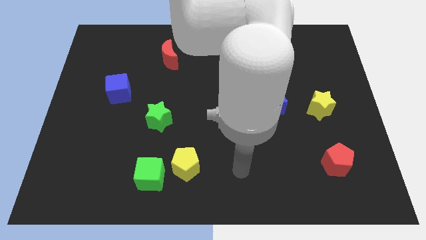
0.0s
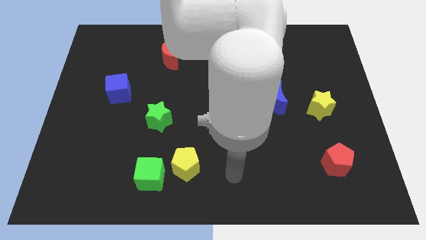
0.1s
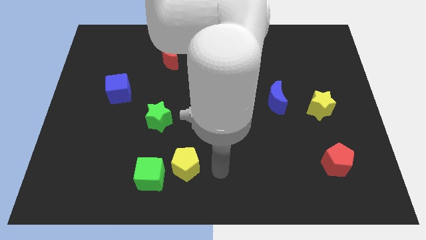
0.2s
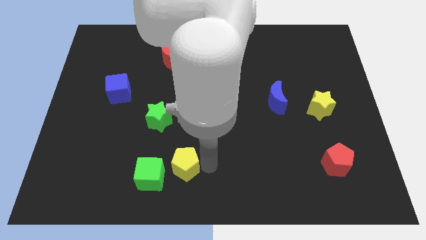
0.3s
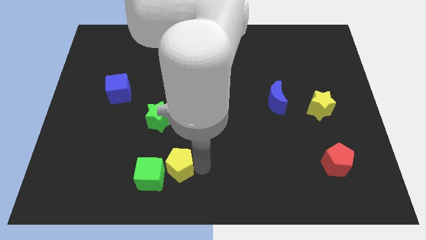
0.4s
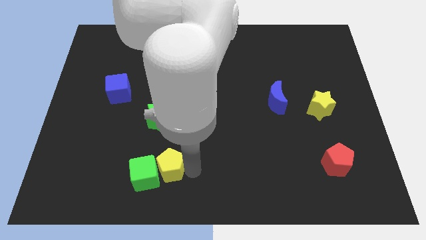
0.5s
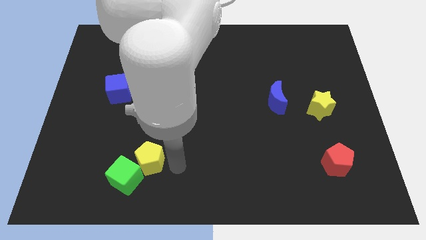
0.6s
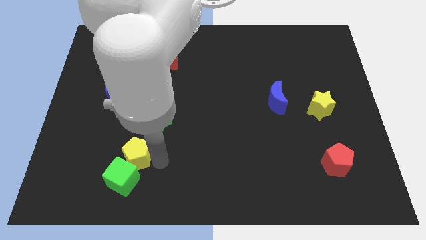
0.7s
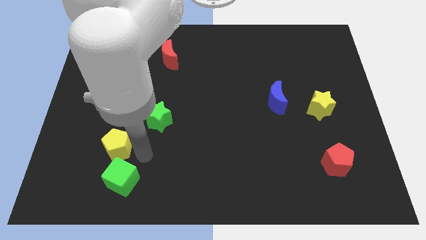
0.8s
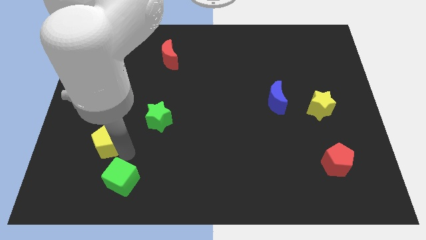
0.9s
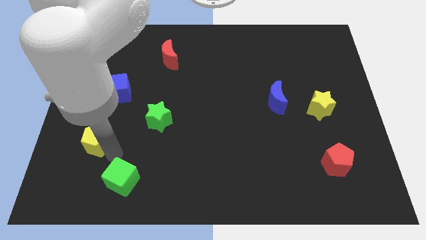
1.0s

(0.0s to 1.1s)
pull the green cube apart from the yellow pentagon

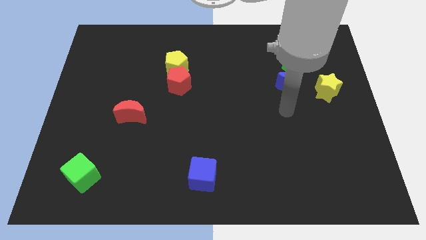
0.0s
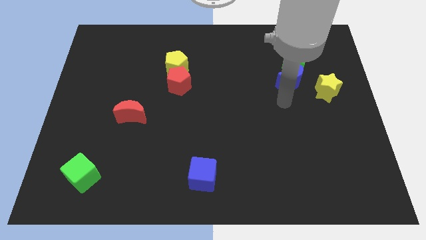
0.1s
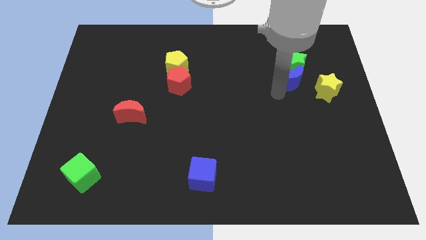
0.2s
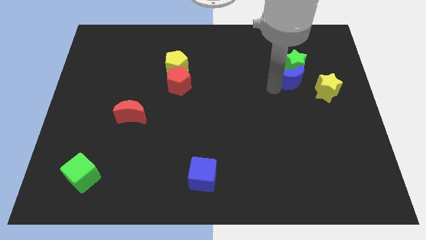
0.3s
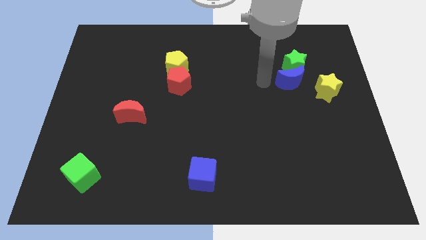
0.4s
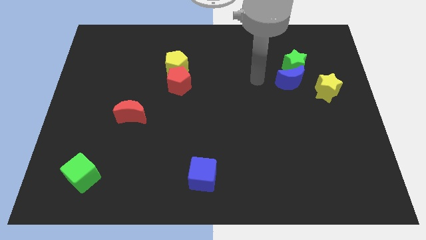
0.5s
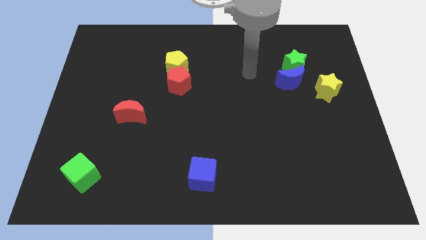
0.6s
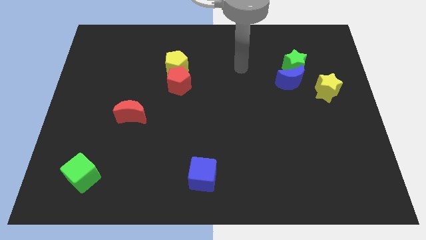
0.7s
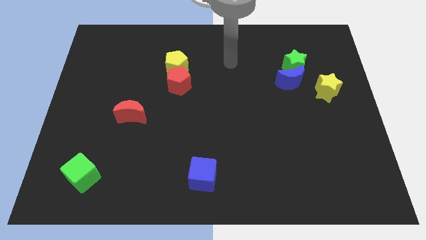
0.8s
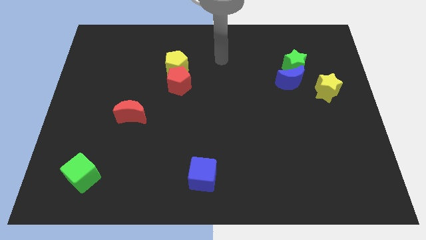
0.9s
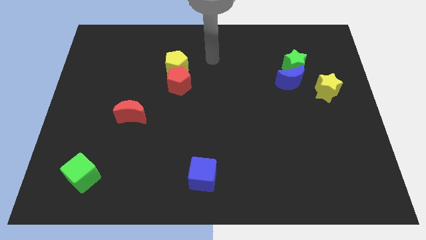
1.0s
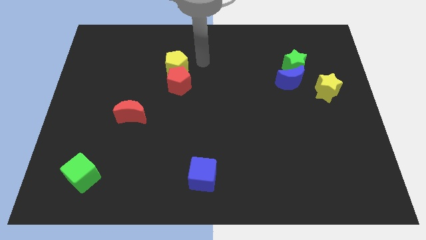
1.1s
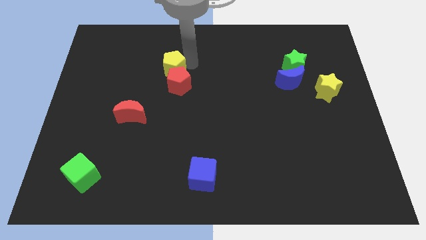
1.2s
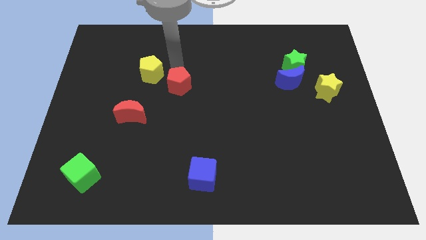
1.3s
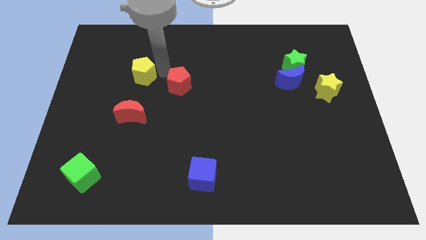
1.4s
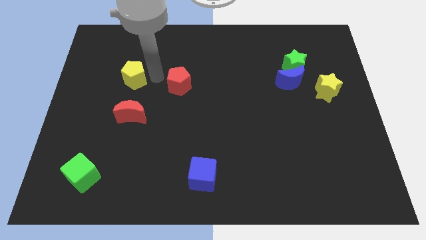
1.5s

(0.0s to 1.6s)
move the red pentagon away from the yellow pentagon

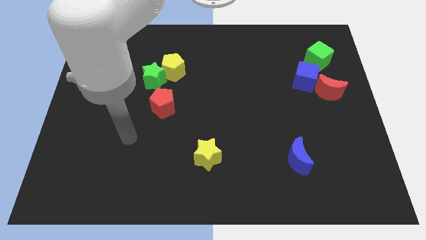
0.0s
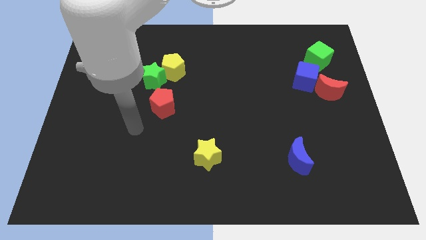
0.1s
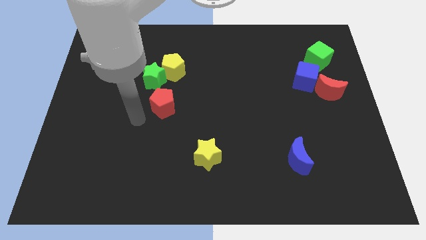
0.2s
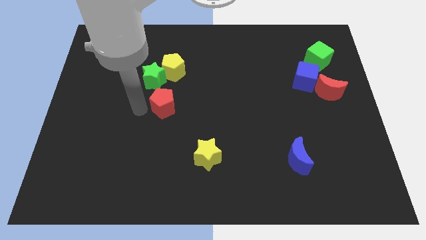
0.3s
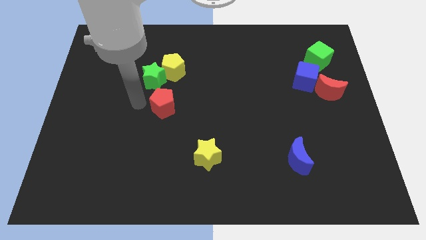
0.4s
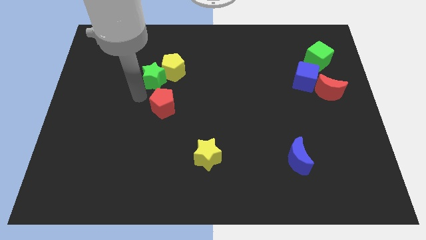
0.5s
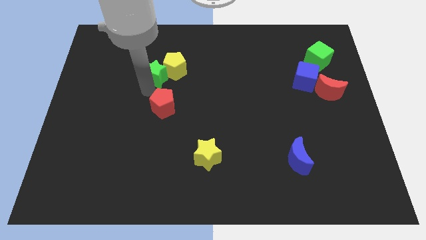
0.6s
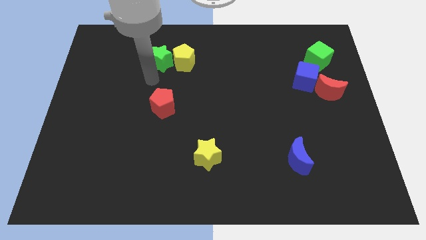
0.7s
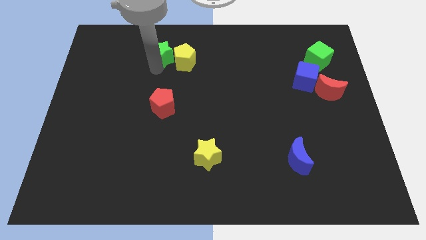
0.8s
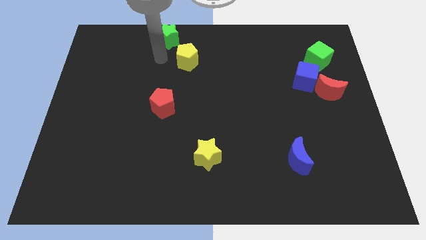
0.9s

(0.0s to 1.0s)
move the yellow pentagon away from the green star

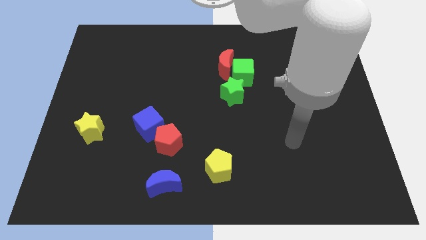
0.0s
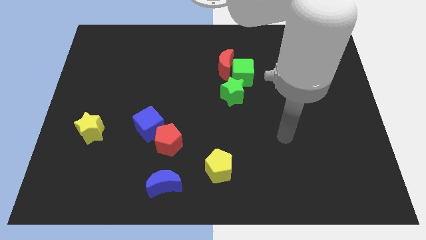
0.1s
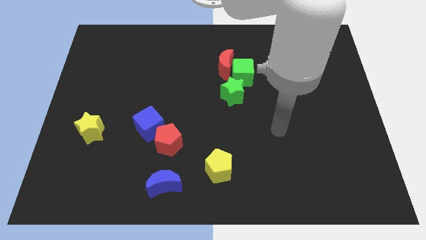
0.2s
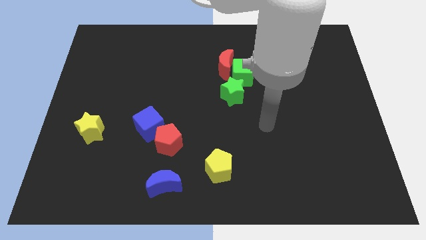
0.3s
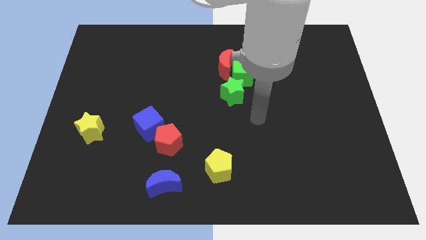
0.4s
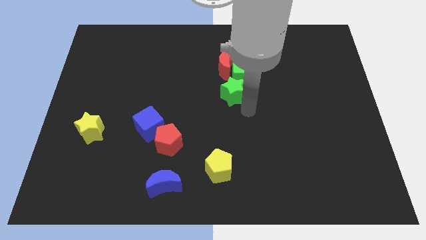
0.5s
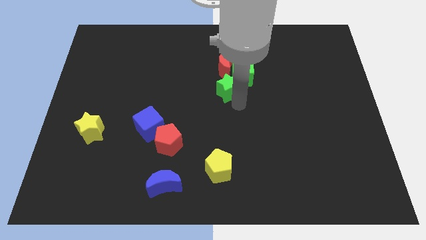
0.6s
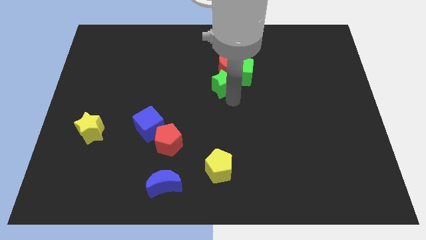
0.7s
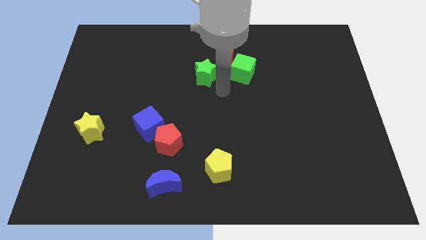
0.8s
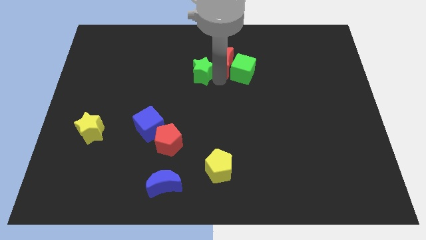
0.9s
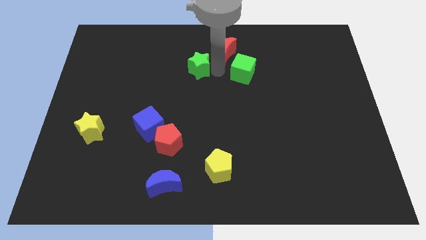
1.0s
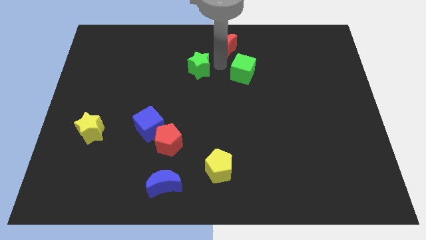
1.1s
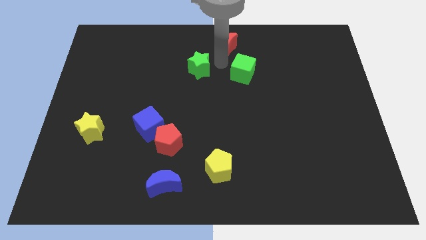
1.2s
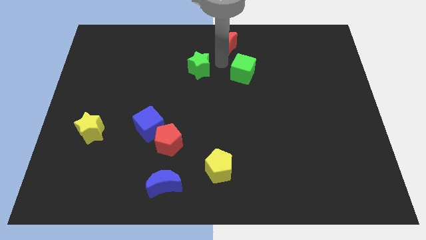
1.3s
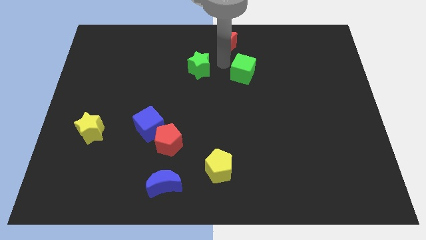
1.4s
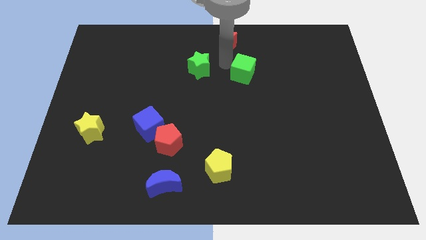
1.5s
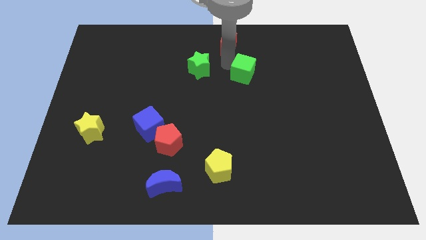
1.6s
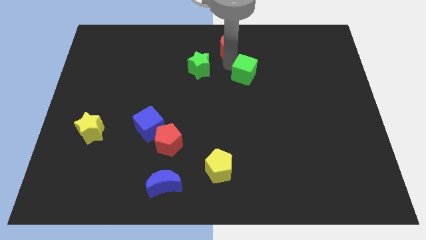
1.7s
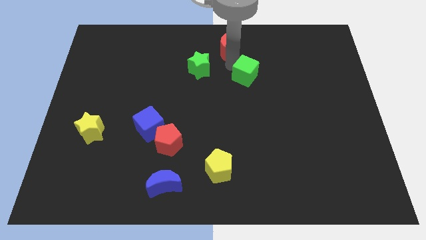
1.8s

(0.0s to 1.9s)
separate the green cube from the red moon and green star

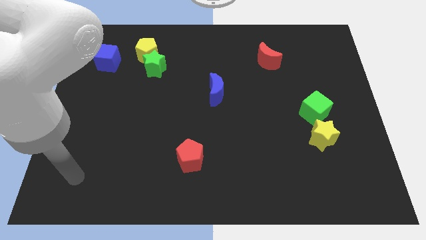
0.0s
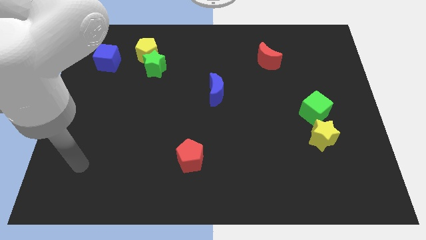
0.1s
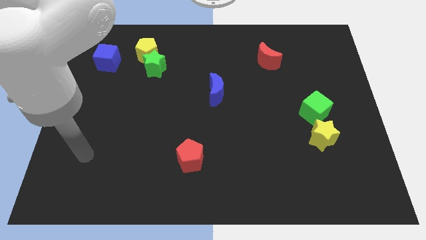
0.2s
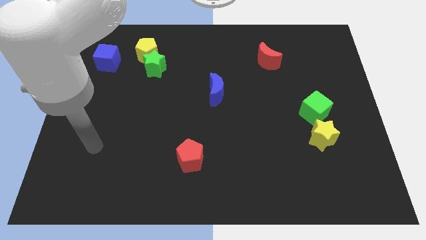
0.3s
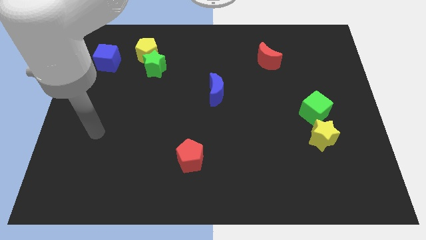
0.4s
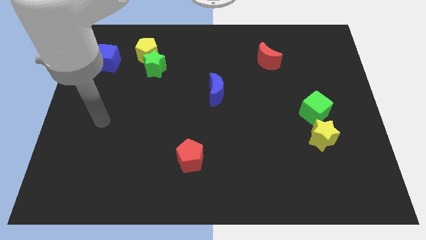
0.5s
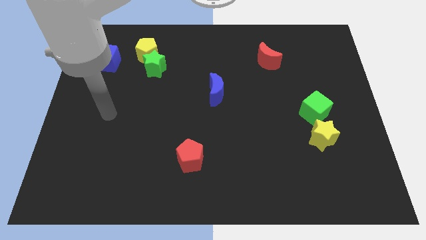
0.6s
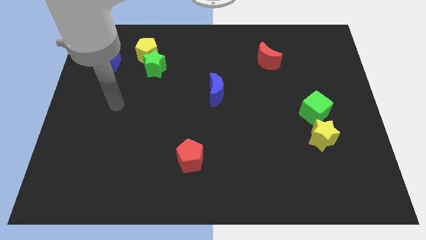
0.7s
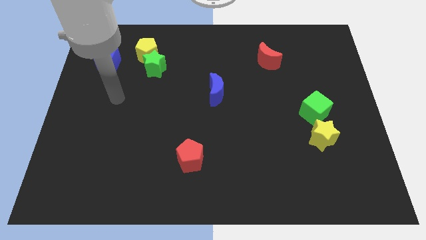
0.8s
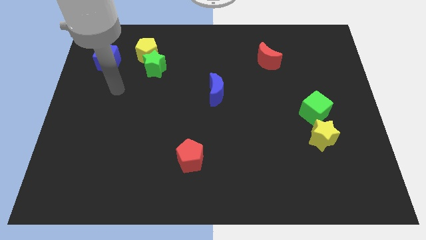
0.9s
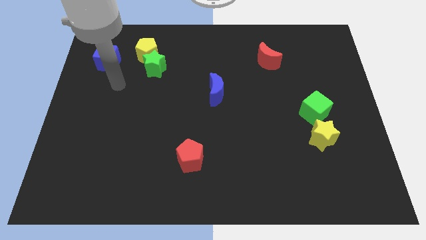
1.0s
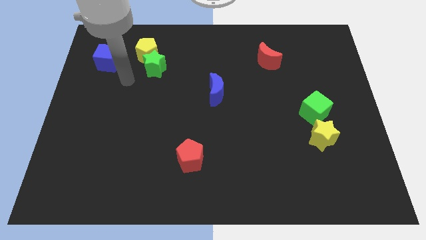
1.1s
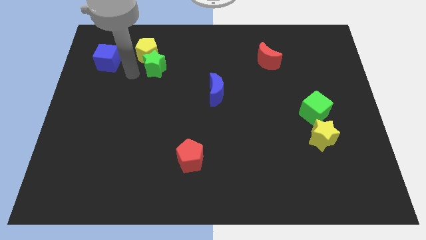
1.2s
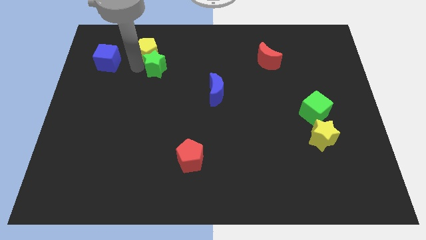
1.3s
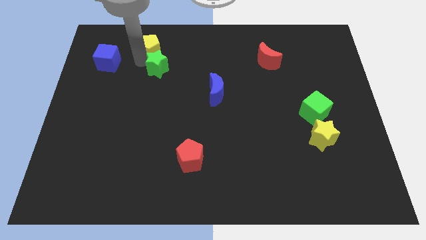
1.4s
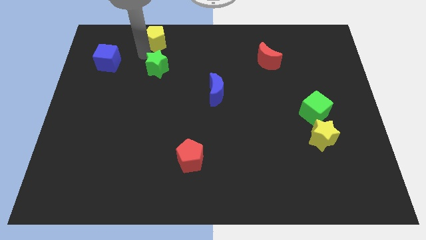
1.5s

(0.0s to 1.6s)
separate the green star from the yellow pentagon

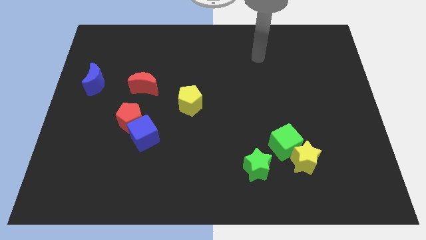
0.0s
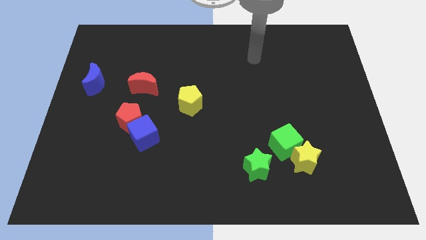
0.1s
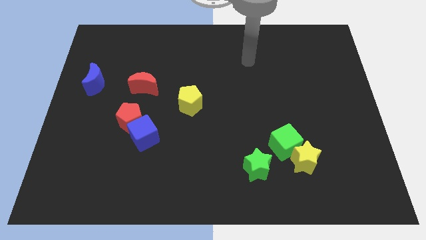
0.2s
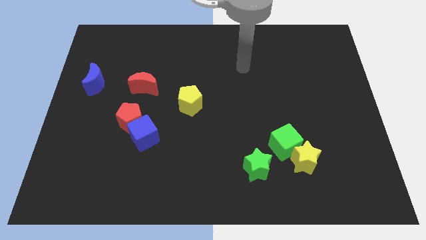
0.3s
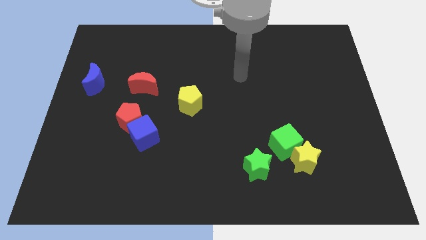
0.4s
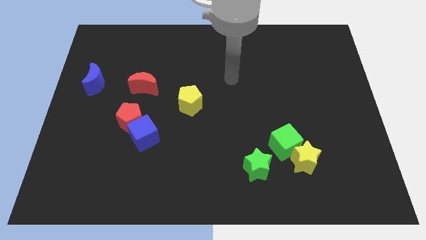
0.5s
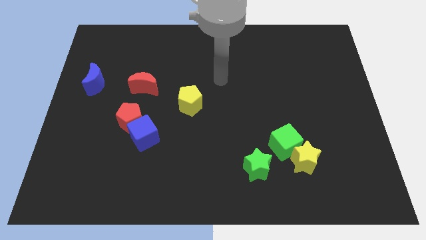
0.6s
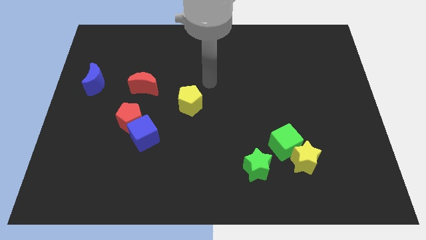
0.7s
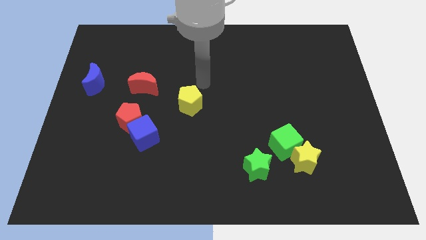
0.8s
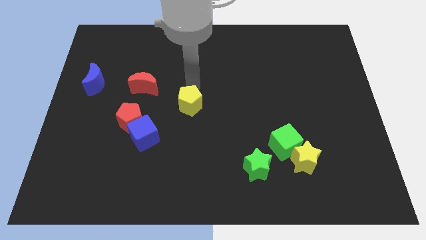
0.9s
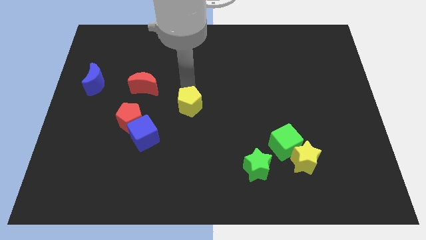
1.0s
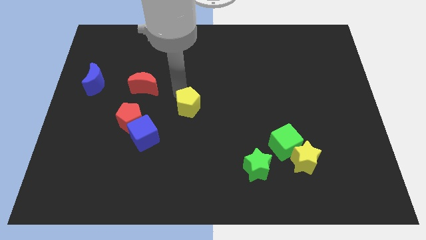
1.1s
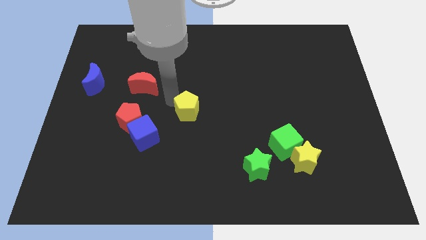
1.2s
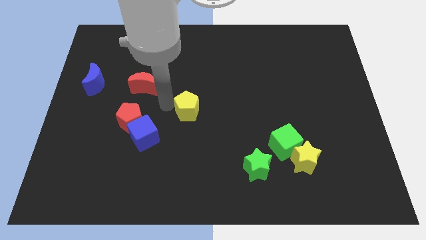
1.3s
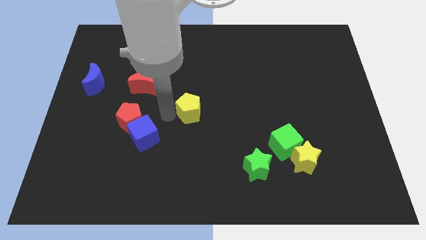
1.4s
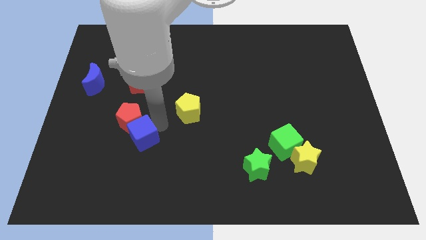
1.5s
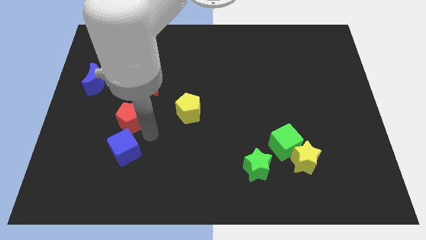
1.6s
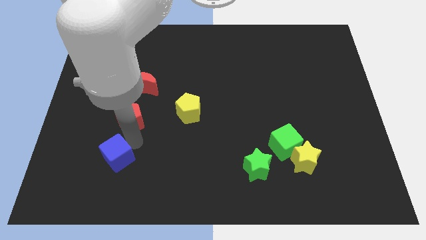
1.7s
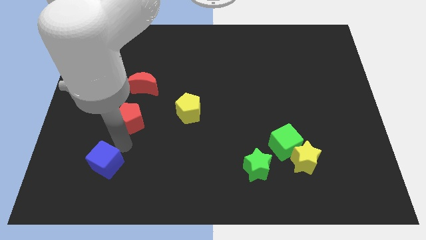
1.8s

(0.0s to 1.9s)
pull the red pentagon apart from the blue cube

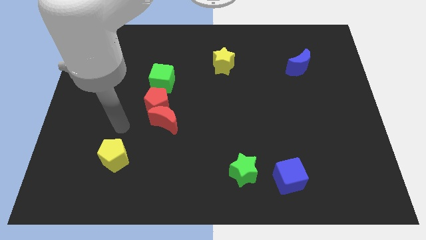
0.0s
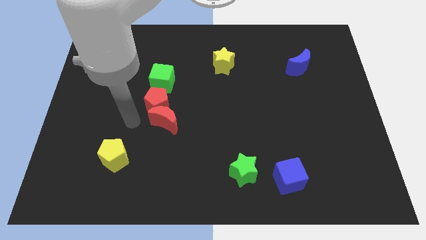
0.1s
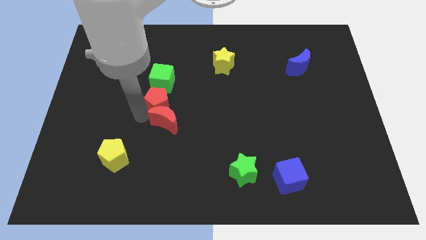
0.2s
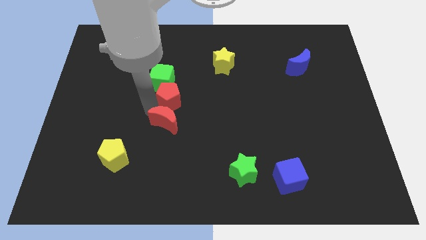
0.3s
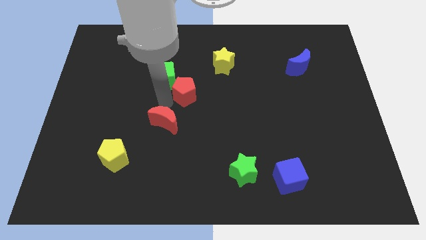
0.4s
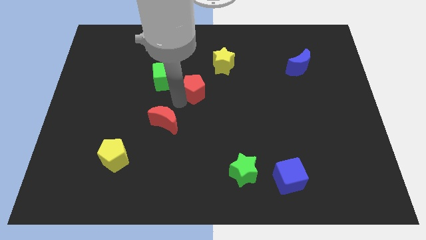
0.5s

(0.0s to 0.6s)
separate the red moon from the red pentagon
